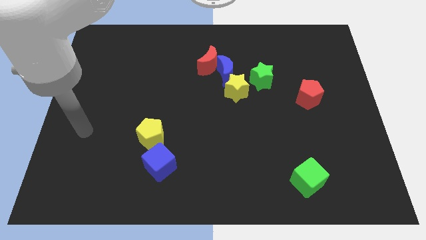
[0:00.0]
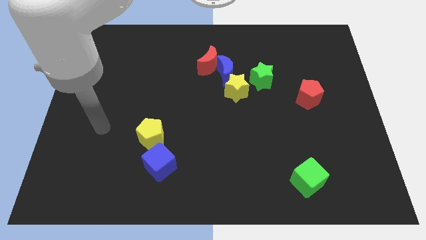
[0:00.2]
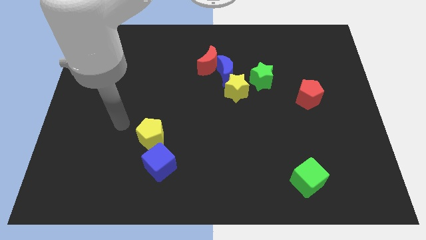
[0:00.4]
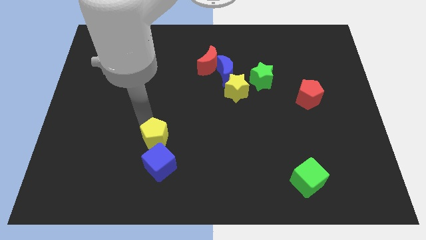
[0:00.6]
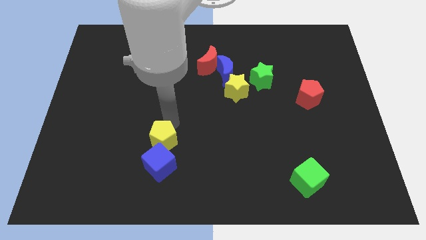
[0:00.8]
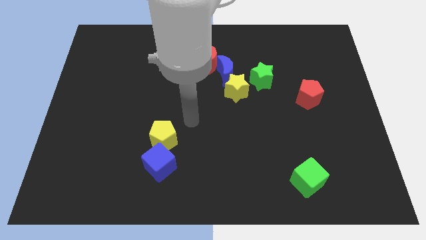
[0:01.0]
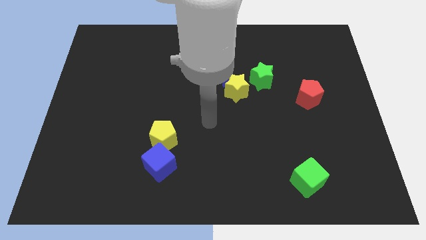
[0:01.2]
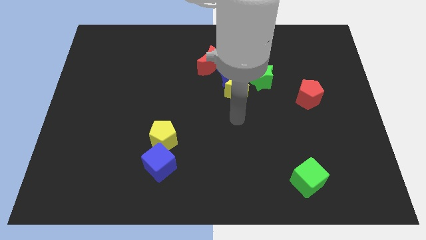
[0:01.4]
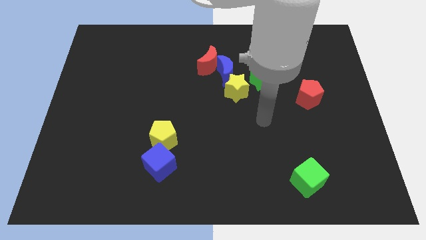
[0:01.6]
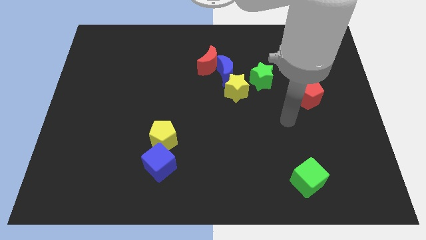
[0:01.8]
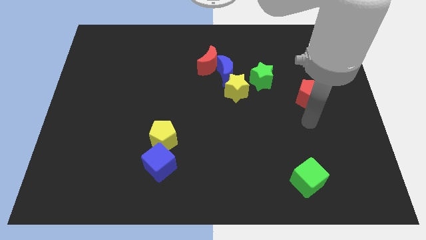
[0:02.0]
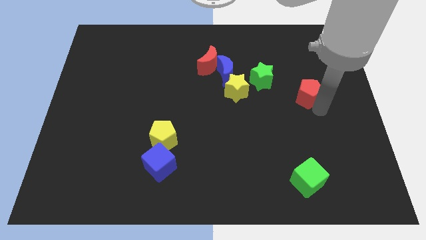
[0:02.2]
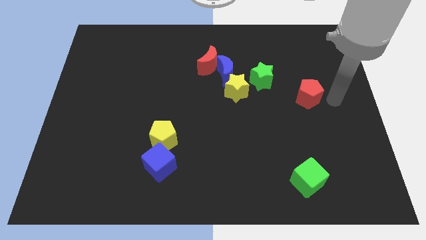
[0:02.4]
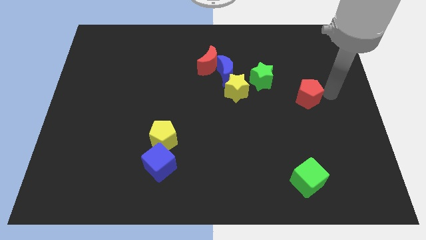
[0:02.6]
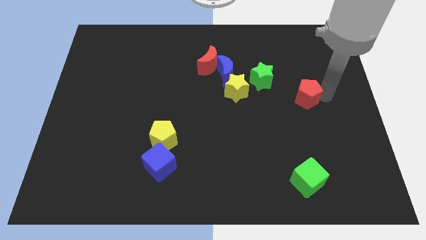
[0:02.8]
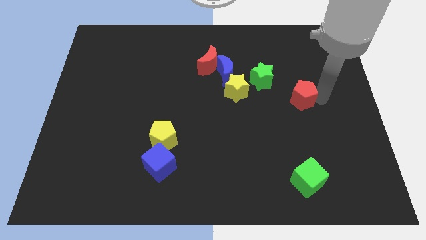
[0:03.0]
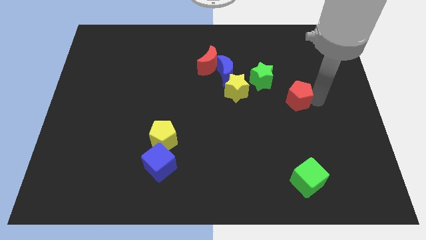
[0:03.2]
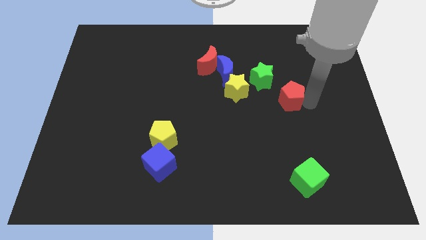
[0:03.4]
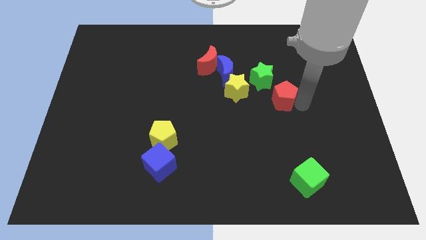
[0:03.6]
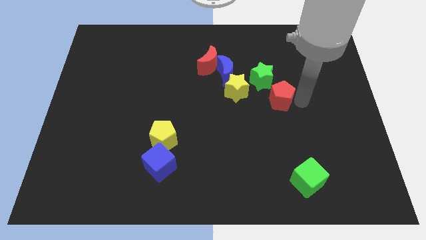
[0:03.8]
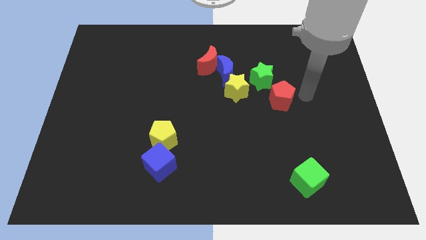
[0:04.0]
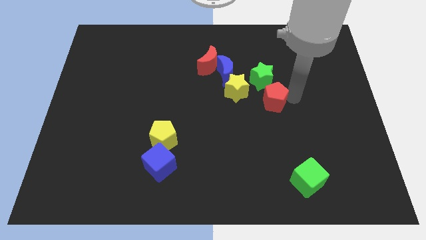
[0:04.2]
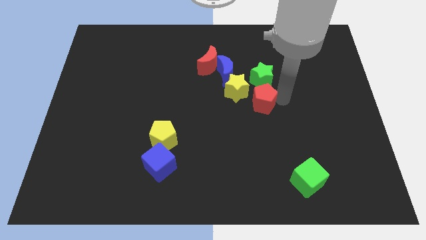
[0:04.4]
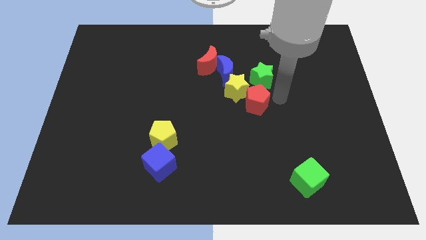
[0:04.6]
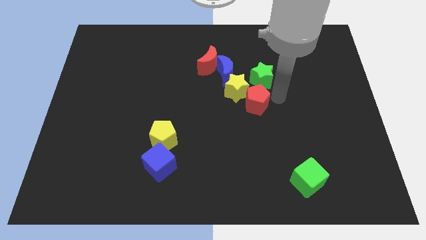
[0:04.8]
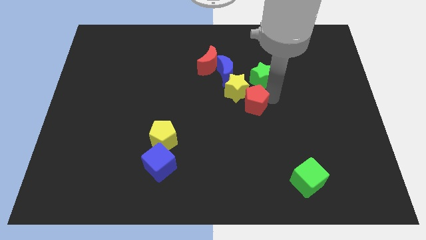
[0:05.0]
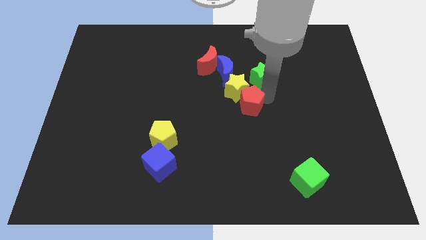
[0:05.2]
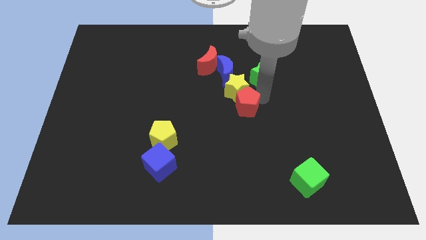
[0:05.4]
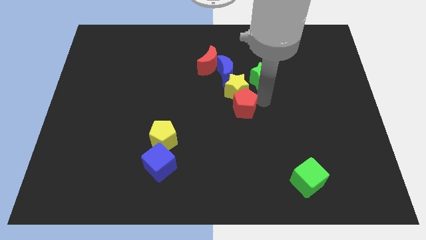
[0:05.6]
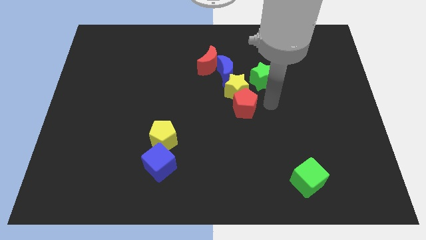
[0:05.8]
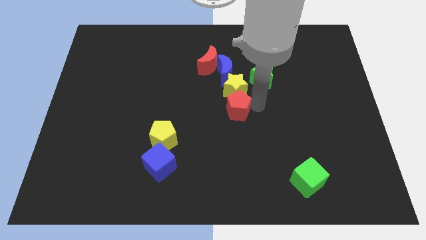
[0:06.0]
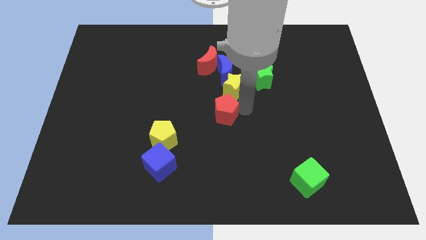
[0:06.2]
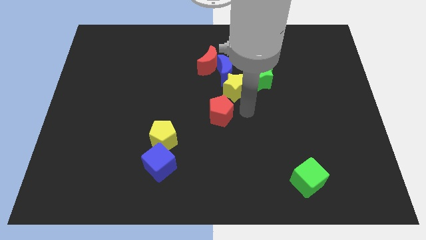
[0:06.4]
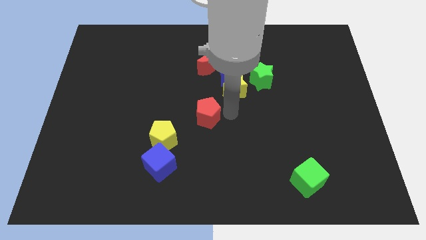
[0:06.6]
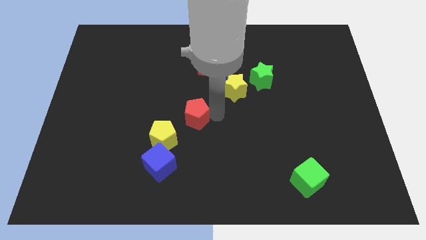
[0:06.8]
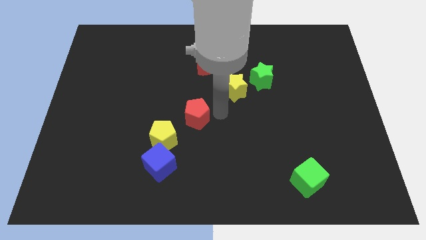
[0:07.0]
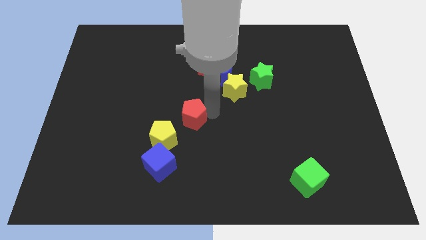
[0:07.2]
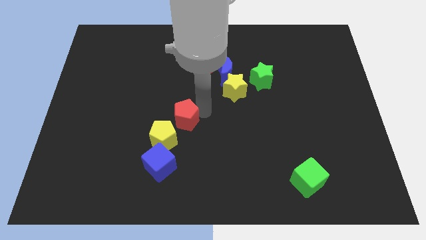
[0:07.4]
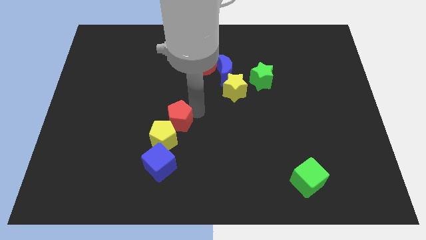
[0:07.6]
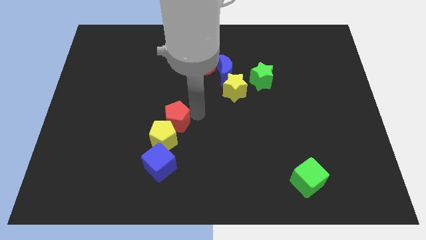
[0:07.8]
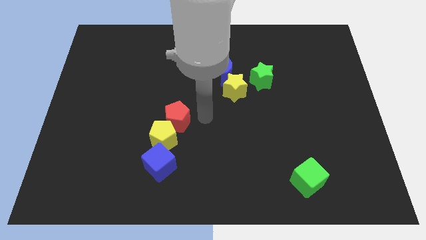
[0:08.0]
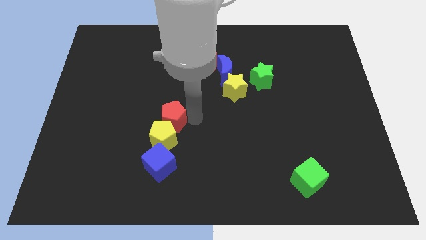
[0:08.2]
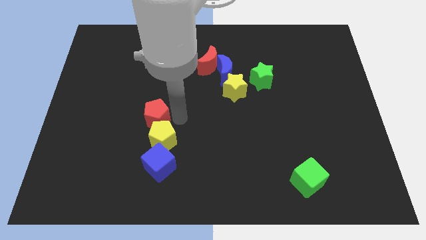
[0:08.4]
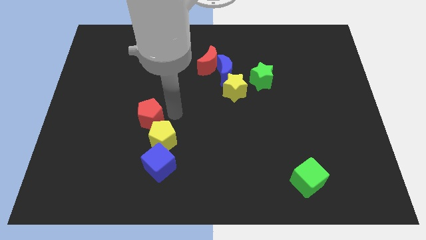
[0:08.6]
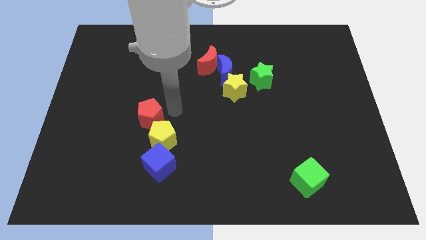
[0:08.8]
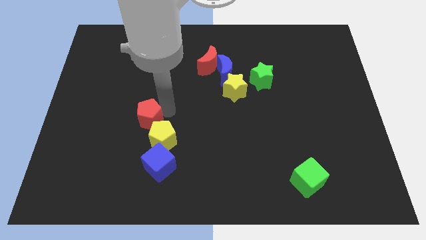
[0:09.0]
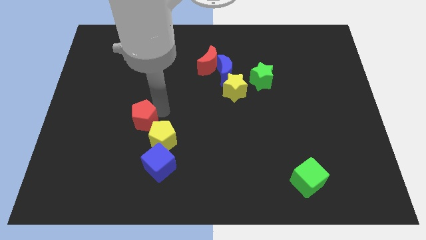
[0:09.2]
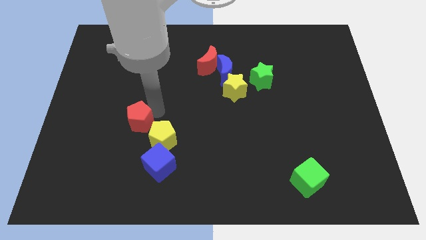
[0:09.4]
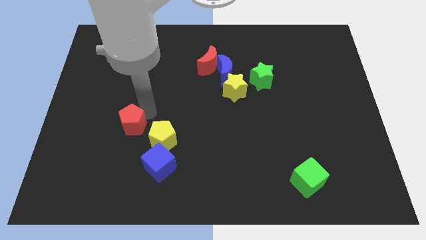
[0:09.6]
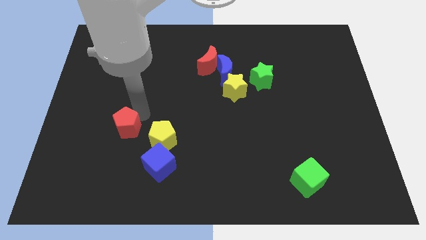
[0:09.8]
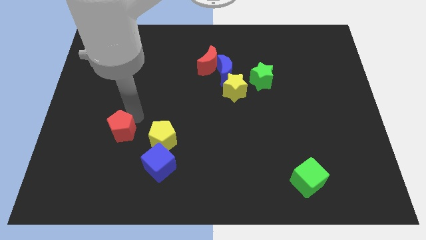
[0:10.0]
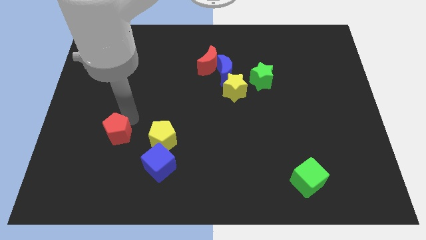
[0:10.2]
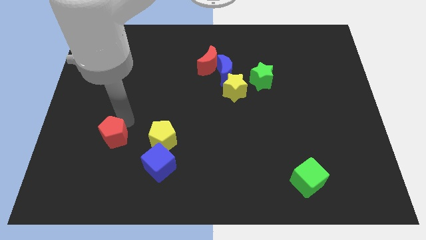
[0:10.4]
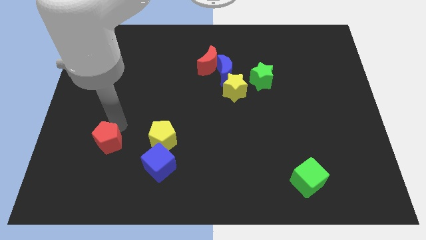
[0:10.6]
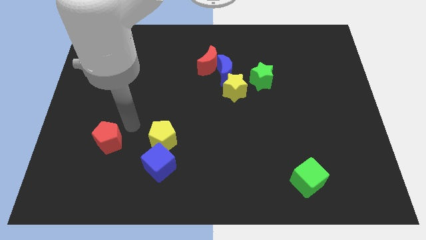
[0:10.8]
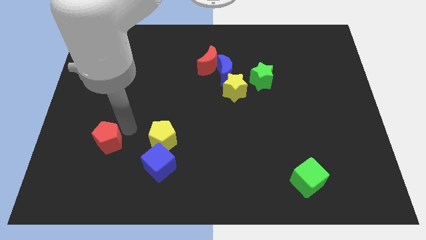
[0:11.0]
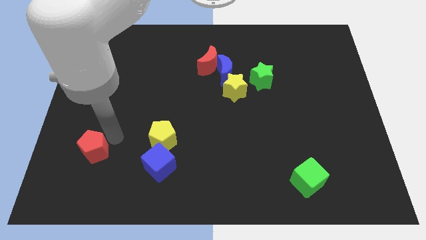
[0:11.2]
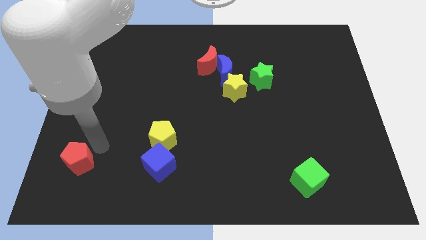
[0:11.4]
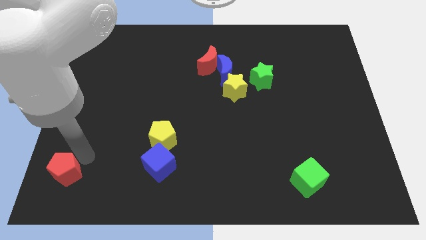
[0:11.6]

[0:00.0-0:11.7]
push the red pentagon to the bottom left corner
